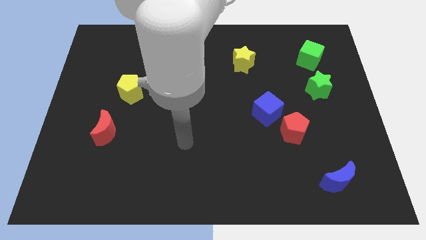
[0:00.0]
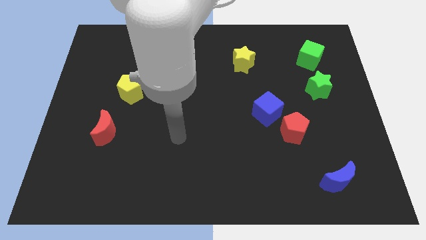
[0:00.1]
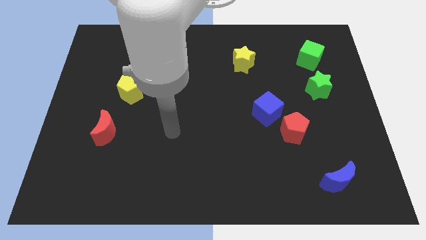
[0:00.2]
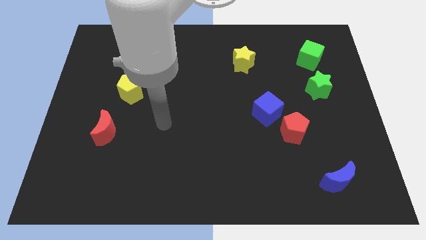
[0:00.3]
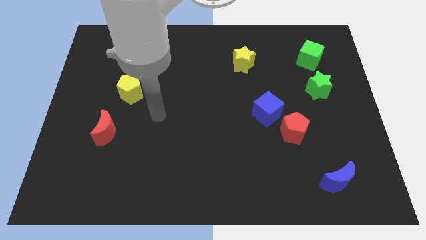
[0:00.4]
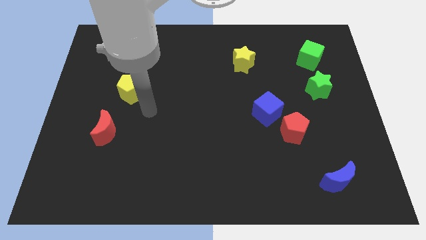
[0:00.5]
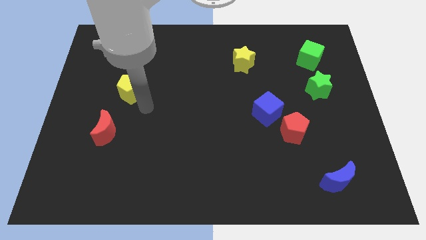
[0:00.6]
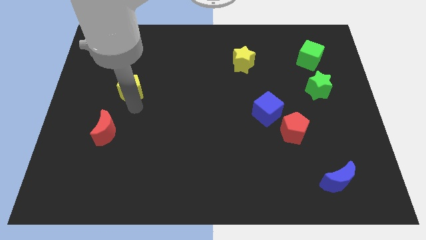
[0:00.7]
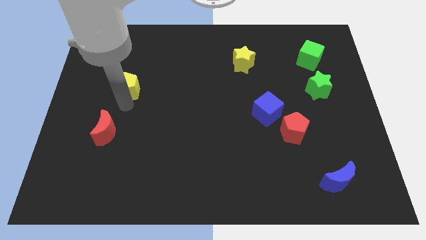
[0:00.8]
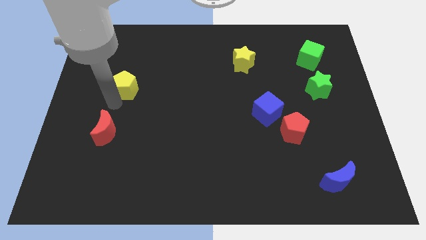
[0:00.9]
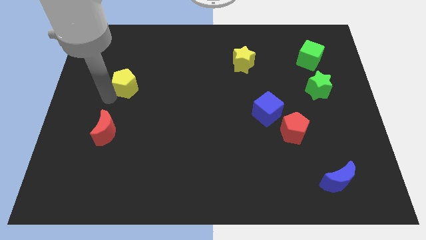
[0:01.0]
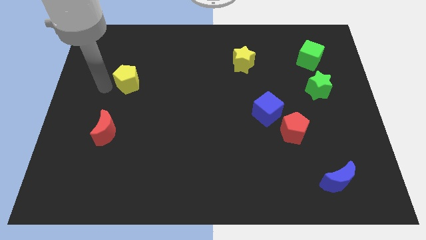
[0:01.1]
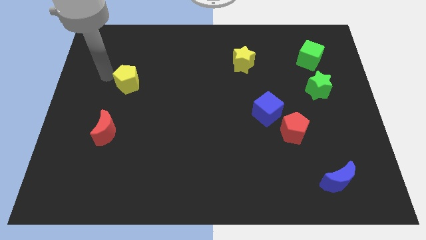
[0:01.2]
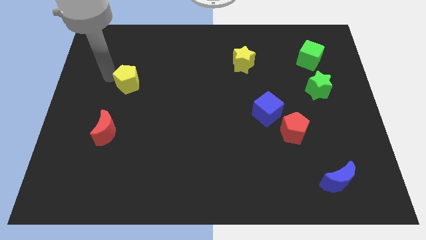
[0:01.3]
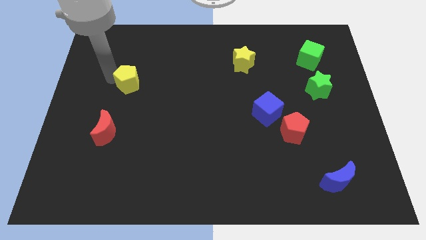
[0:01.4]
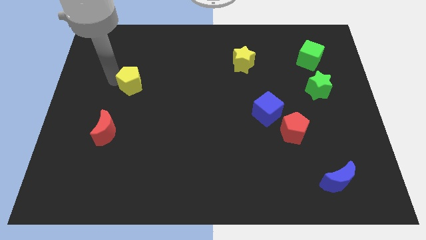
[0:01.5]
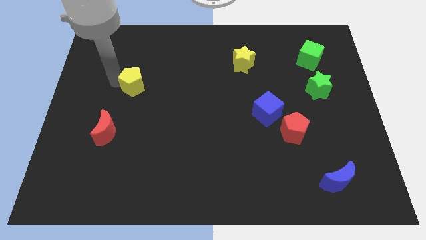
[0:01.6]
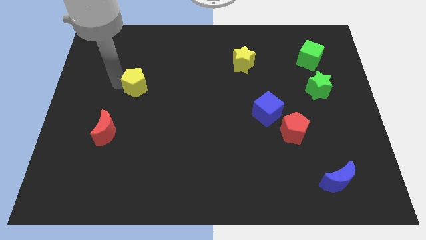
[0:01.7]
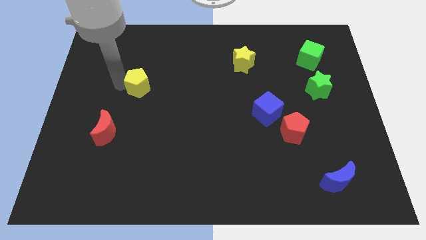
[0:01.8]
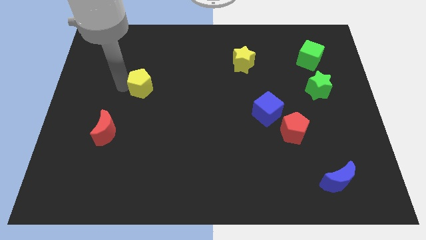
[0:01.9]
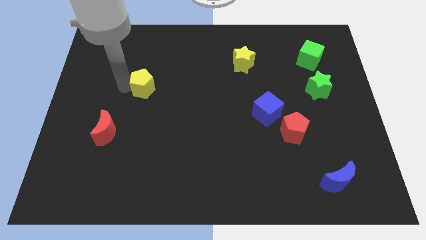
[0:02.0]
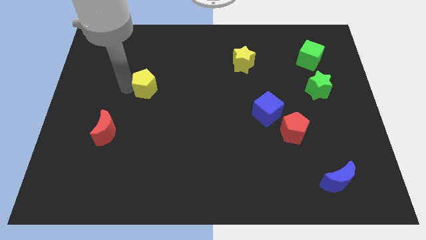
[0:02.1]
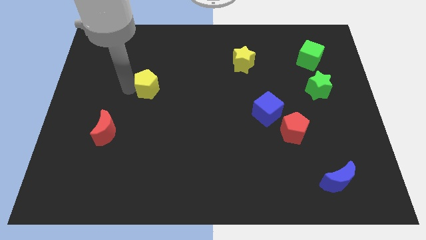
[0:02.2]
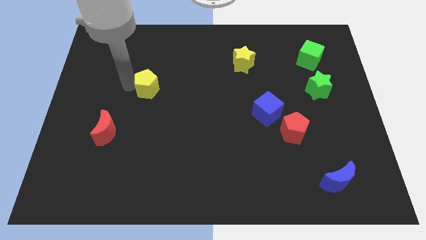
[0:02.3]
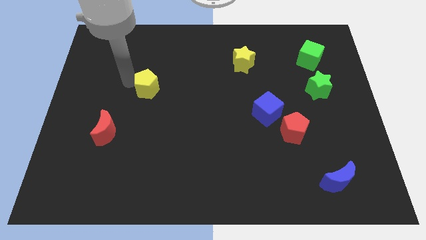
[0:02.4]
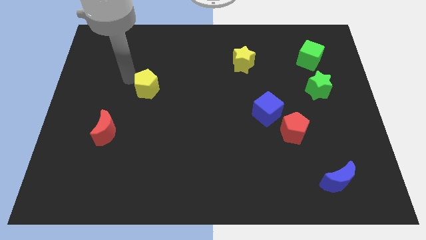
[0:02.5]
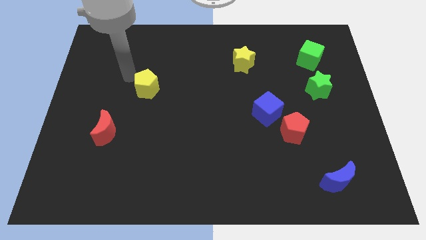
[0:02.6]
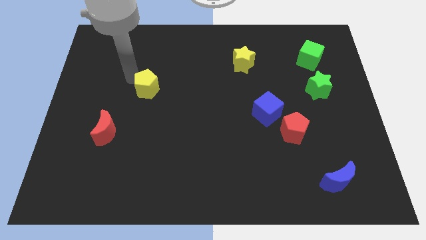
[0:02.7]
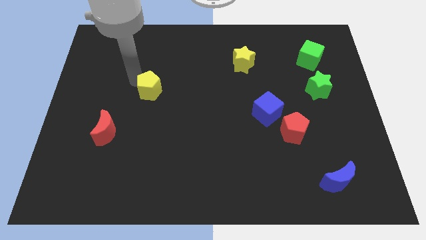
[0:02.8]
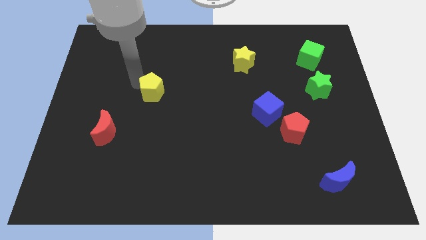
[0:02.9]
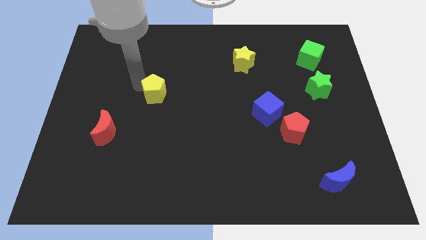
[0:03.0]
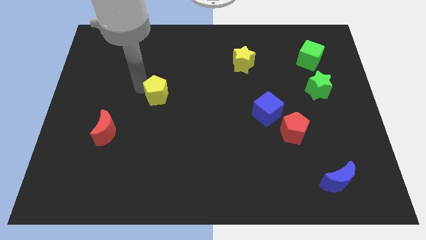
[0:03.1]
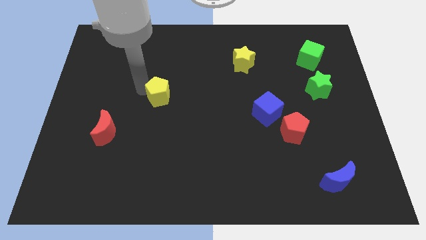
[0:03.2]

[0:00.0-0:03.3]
move the yellow pentagon somewhat right

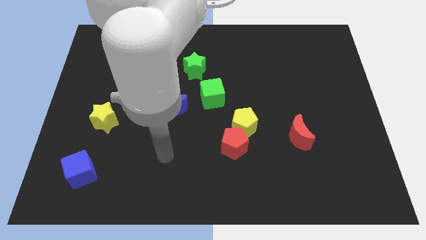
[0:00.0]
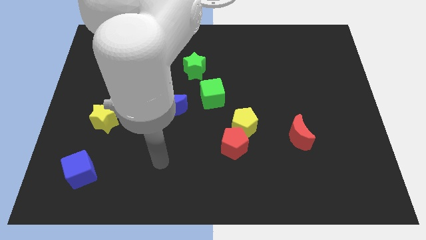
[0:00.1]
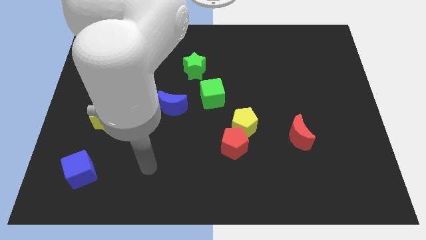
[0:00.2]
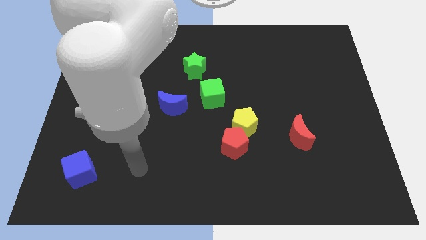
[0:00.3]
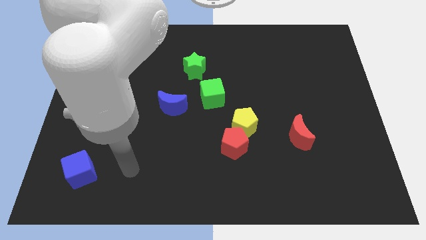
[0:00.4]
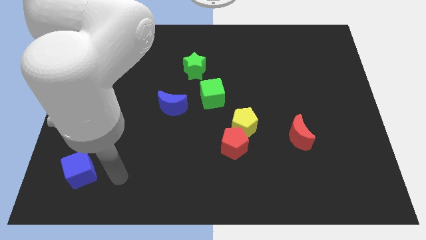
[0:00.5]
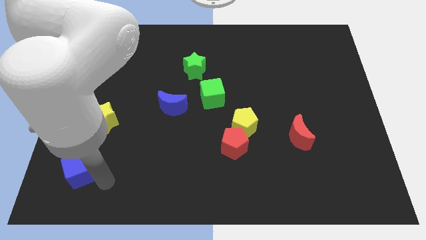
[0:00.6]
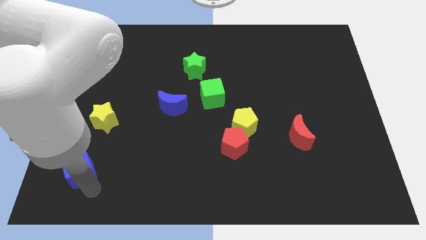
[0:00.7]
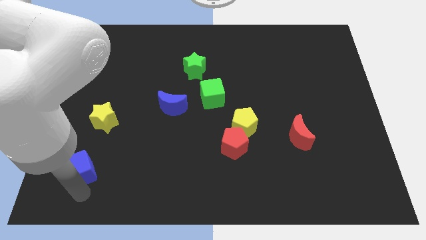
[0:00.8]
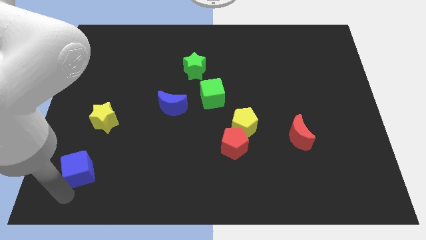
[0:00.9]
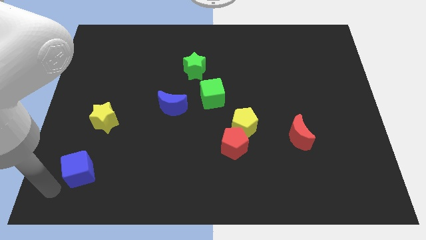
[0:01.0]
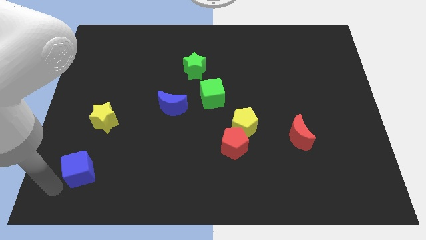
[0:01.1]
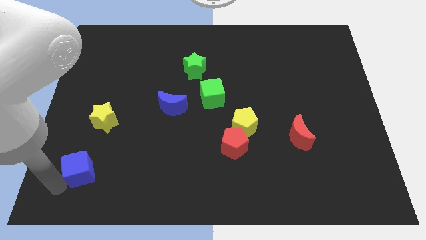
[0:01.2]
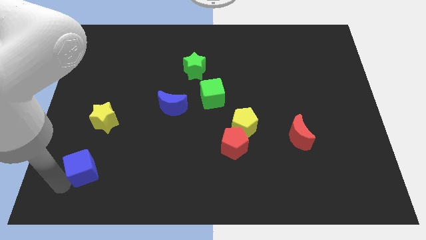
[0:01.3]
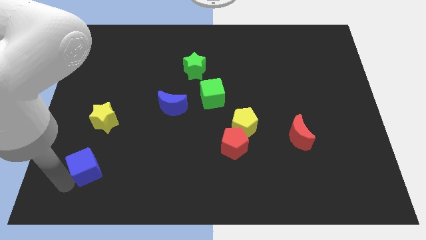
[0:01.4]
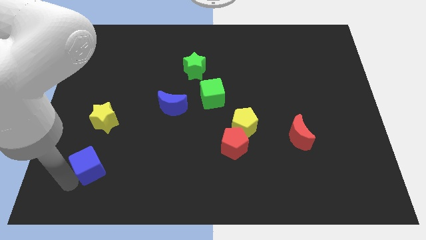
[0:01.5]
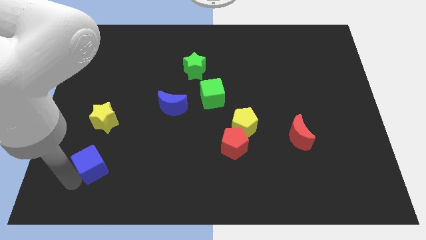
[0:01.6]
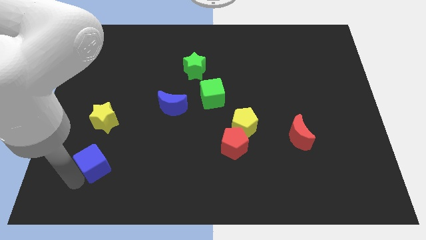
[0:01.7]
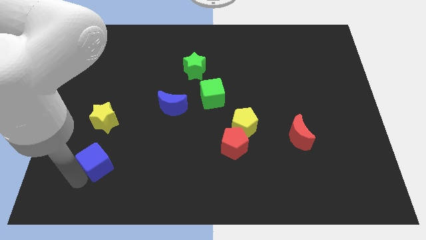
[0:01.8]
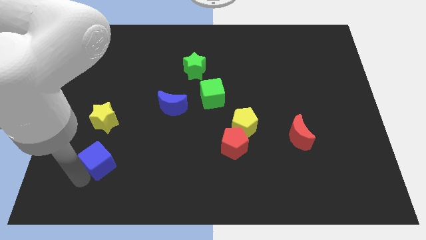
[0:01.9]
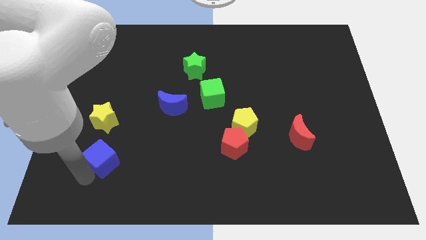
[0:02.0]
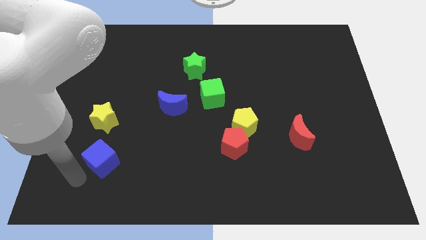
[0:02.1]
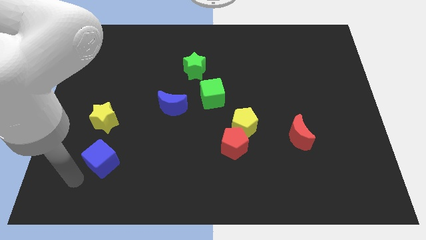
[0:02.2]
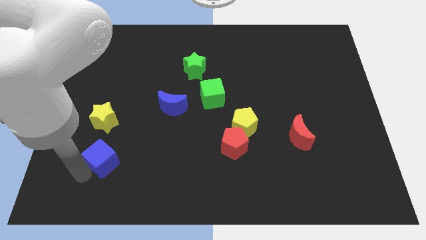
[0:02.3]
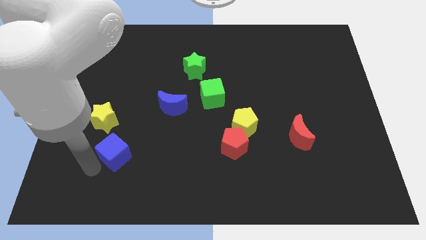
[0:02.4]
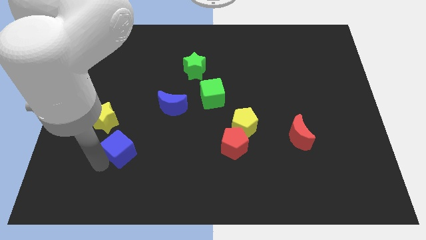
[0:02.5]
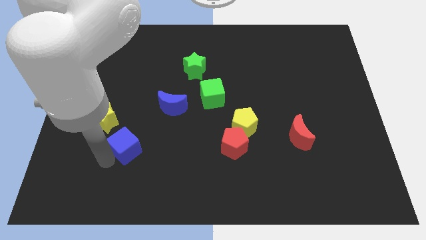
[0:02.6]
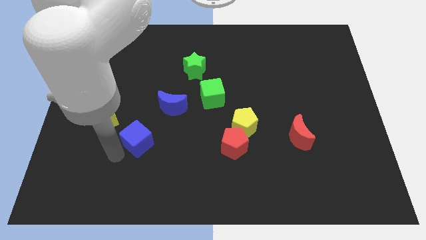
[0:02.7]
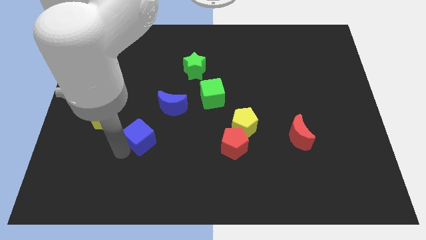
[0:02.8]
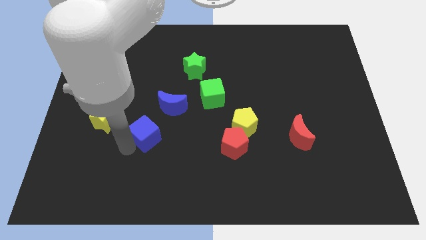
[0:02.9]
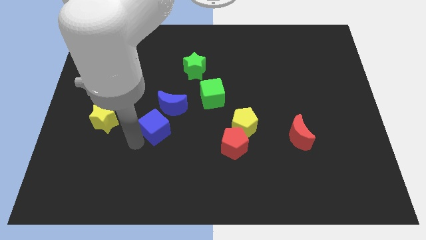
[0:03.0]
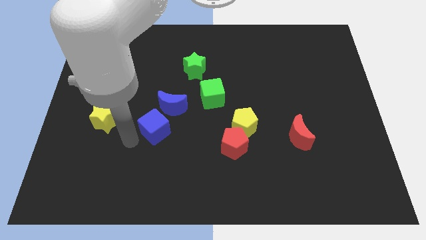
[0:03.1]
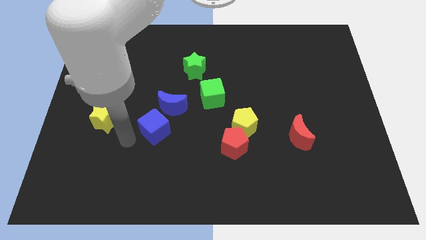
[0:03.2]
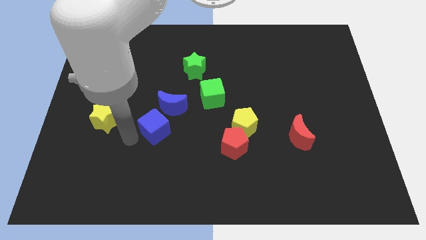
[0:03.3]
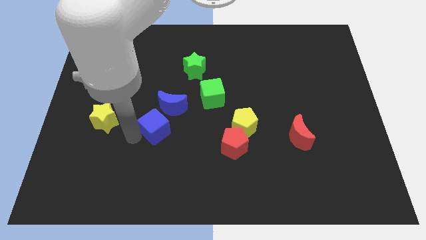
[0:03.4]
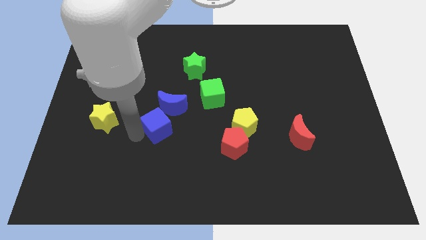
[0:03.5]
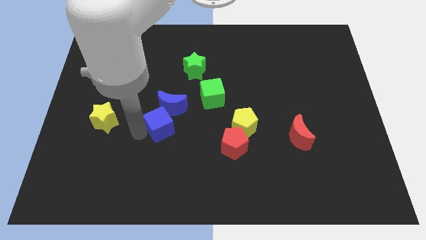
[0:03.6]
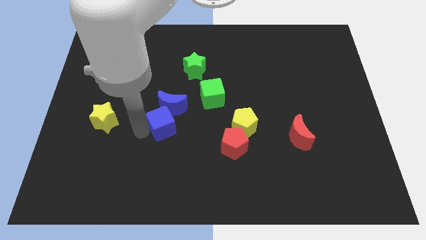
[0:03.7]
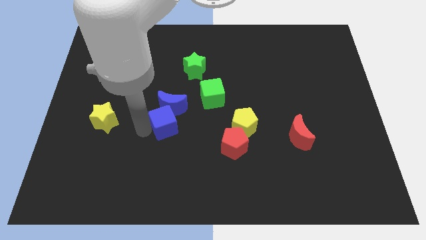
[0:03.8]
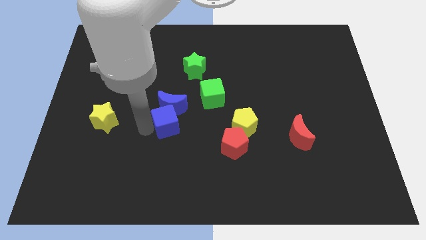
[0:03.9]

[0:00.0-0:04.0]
push the blue cube diagonally upwards and to the right

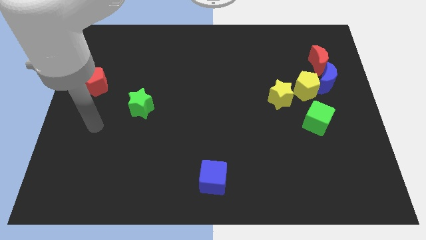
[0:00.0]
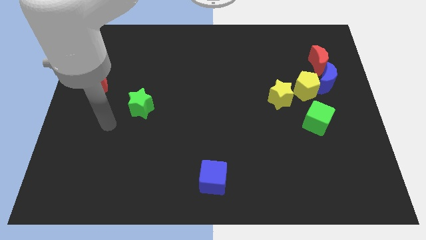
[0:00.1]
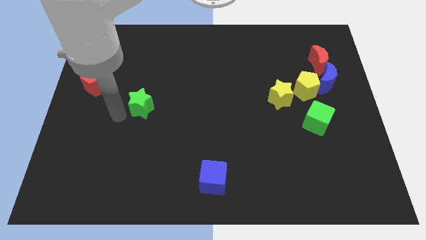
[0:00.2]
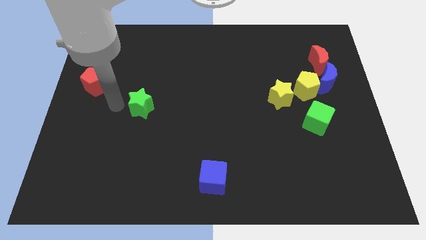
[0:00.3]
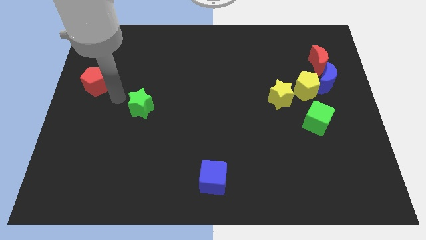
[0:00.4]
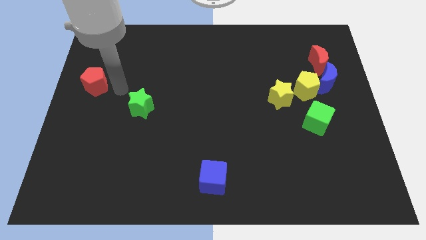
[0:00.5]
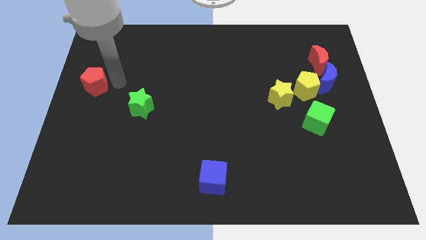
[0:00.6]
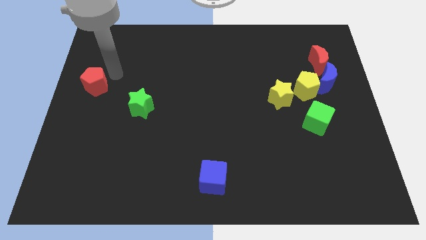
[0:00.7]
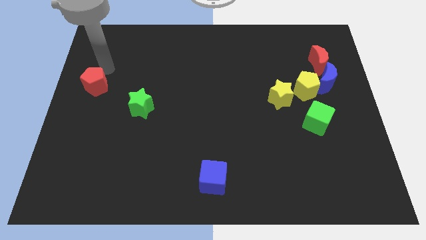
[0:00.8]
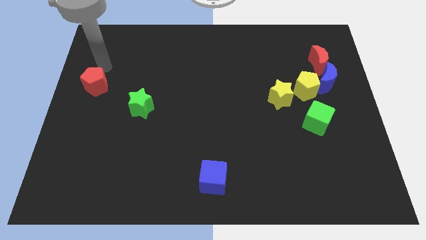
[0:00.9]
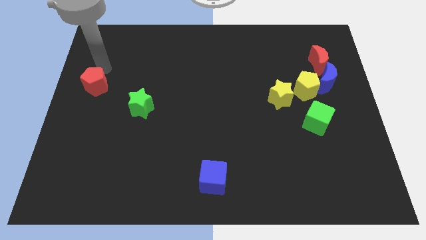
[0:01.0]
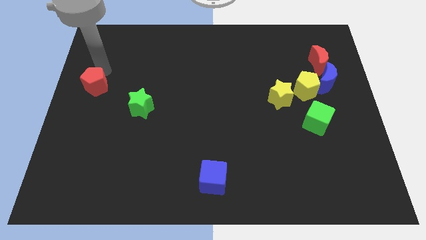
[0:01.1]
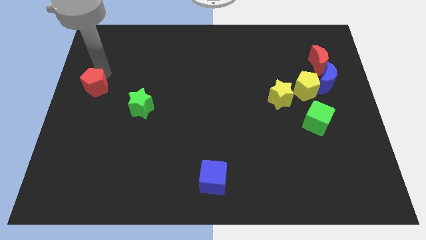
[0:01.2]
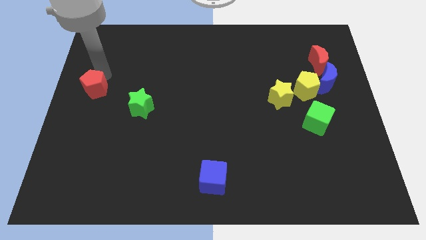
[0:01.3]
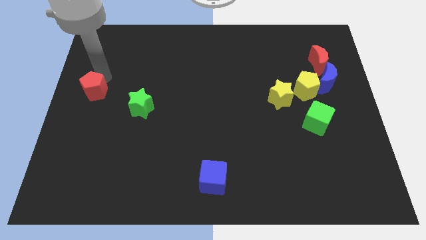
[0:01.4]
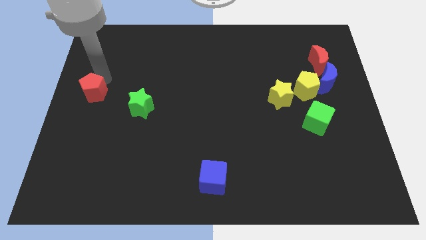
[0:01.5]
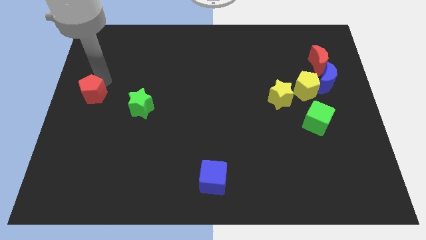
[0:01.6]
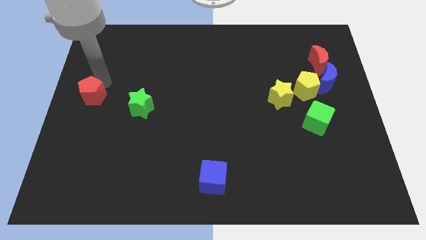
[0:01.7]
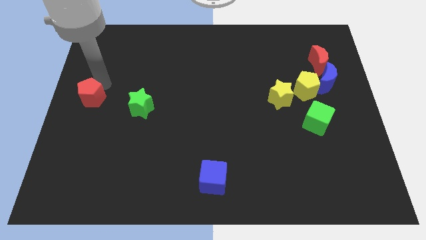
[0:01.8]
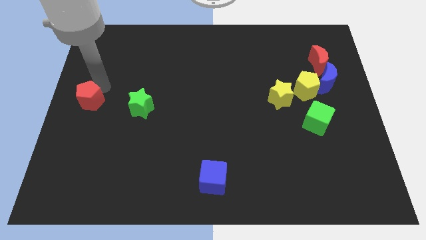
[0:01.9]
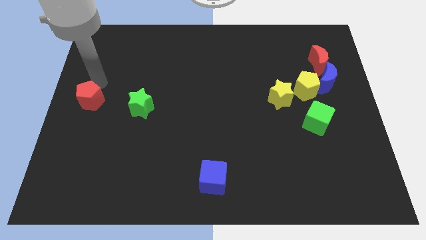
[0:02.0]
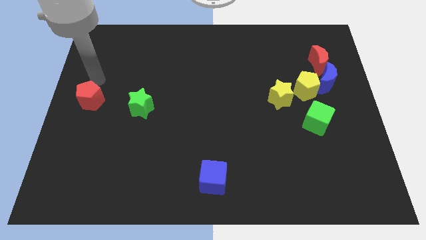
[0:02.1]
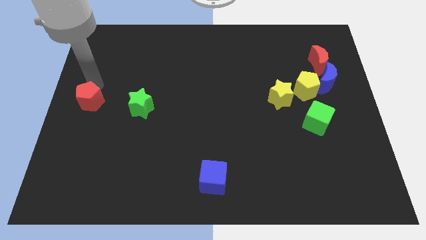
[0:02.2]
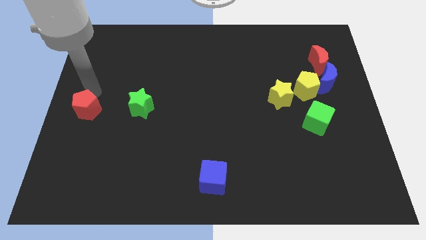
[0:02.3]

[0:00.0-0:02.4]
slide the red pentagon downwards somewhat
